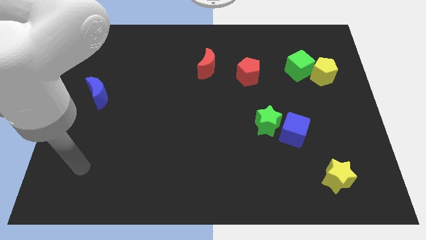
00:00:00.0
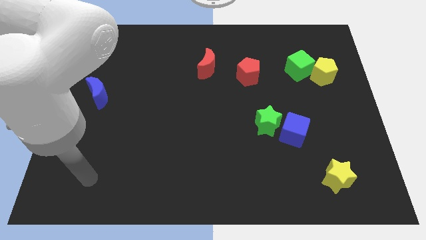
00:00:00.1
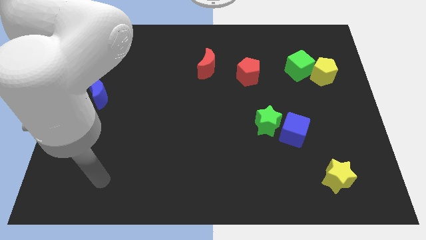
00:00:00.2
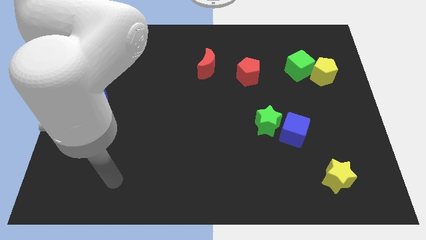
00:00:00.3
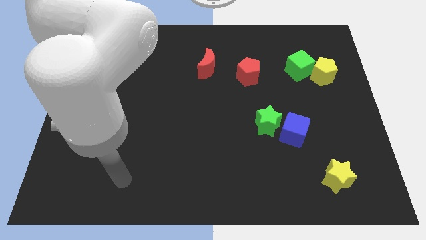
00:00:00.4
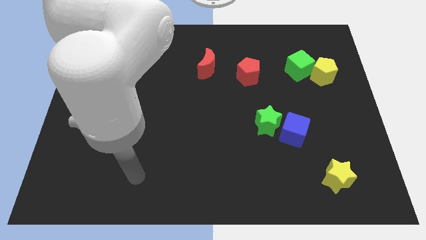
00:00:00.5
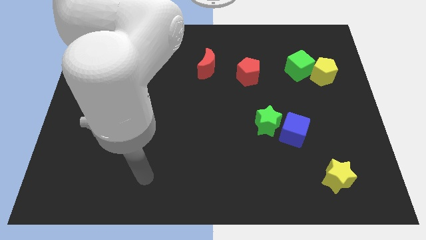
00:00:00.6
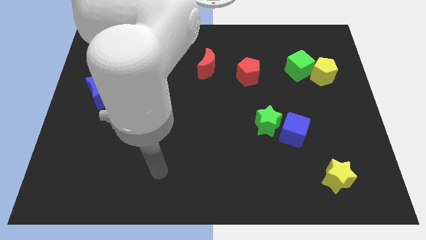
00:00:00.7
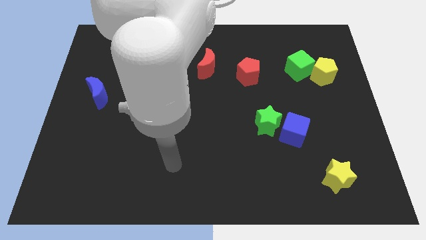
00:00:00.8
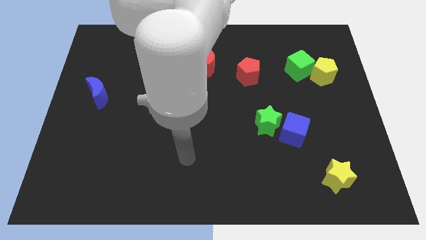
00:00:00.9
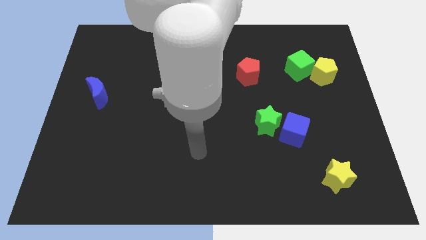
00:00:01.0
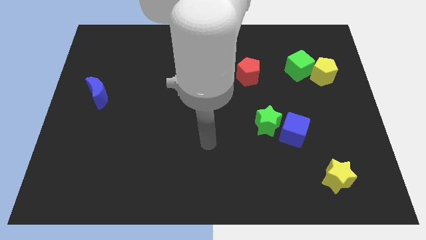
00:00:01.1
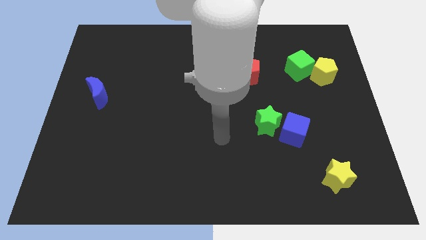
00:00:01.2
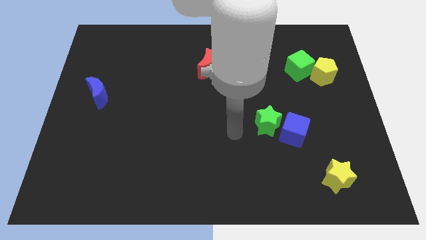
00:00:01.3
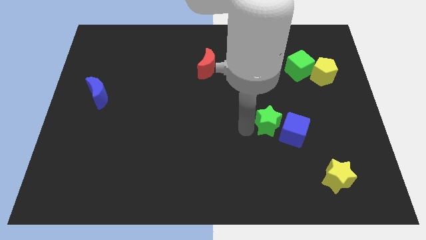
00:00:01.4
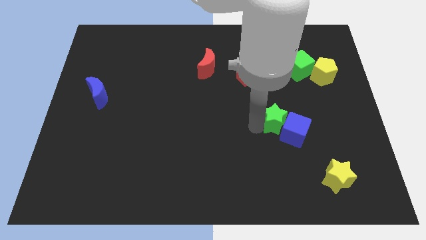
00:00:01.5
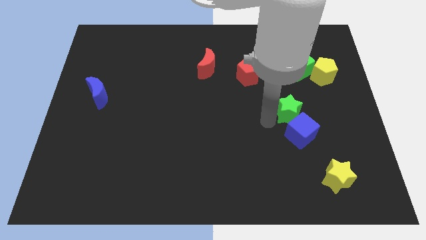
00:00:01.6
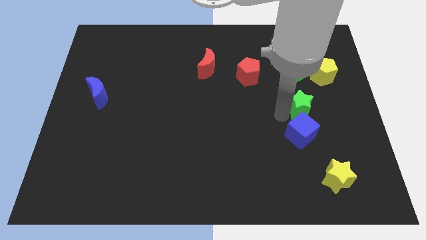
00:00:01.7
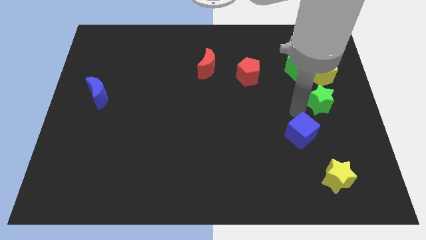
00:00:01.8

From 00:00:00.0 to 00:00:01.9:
move the blue cube away from the green star

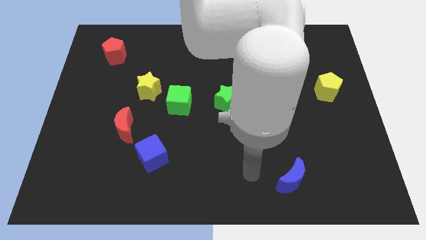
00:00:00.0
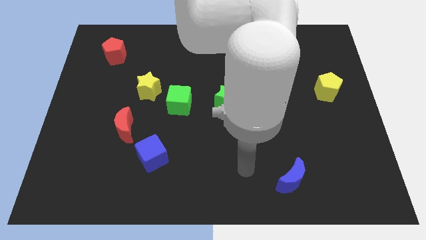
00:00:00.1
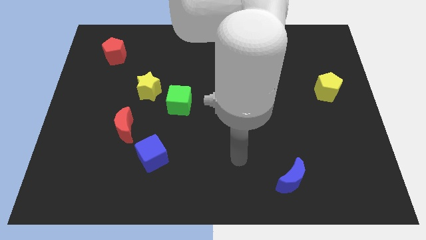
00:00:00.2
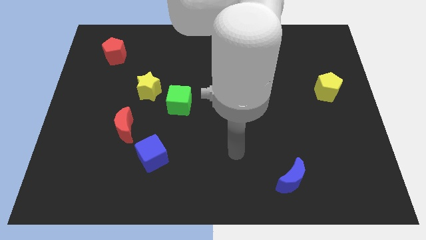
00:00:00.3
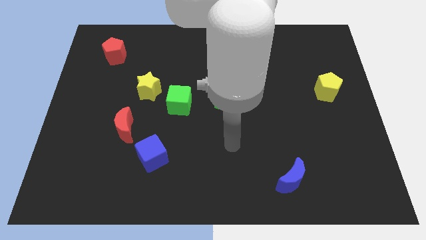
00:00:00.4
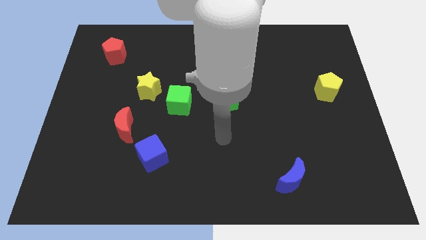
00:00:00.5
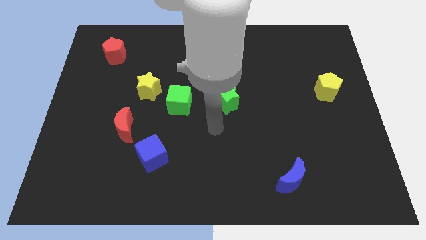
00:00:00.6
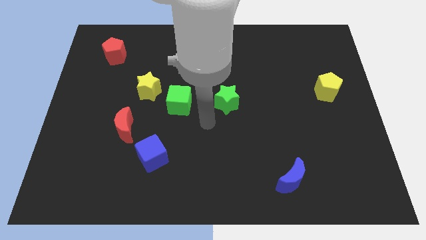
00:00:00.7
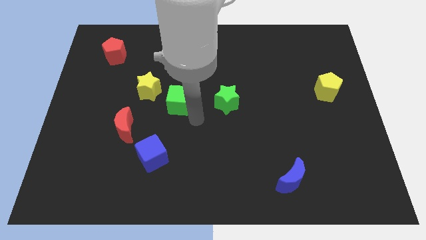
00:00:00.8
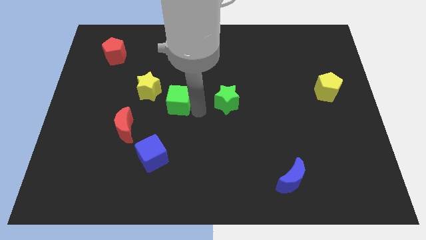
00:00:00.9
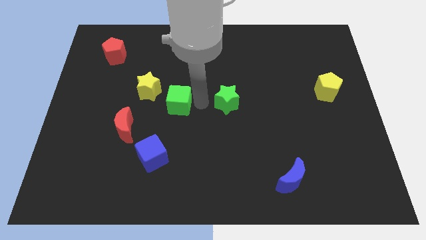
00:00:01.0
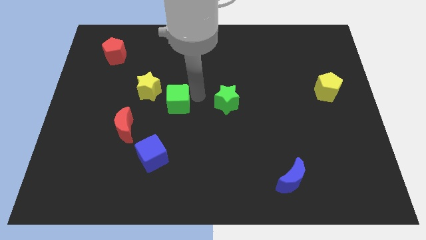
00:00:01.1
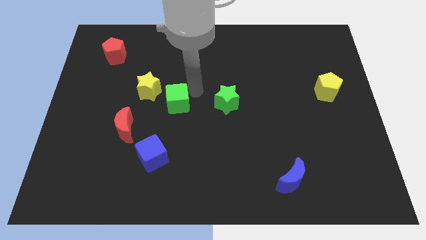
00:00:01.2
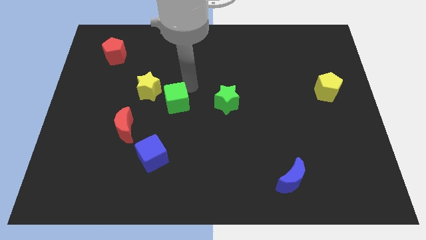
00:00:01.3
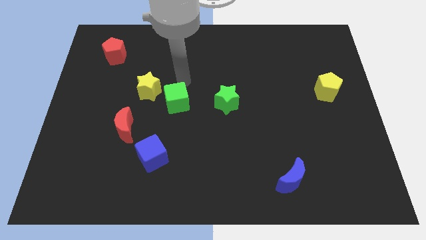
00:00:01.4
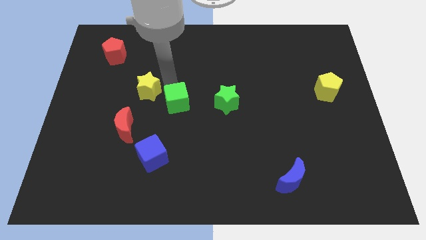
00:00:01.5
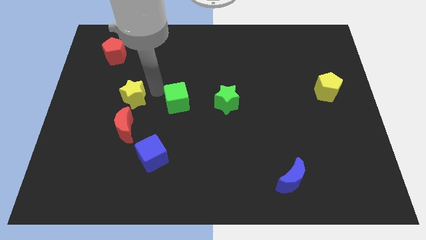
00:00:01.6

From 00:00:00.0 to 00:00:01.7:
pull the green cube apart from the yellow star

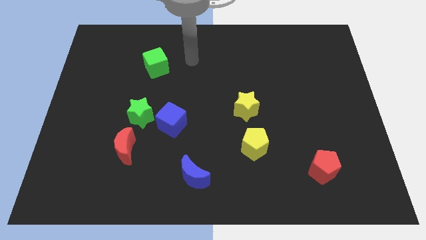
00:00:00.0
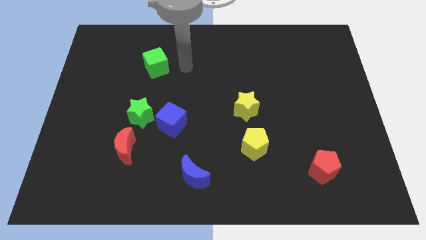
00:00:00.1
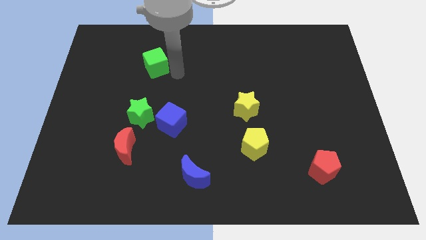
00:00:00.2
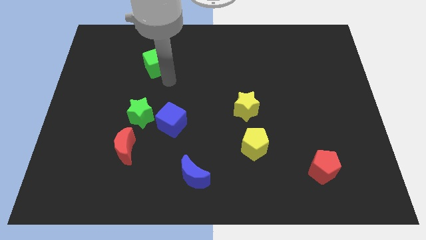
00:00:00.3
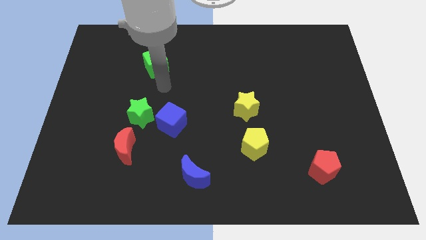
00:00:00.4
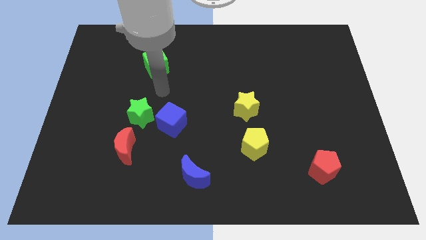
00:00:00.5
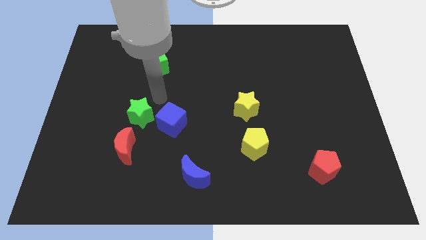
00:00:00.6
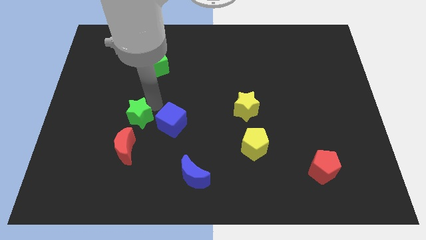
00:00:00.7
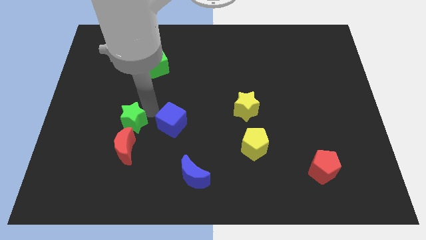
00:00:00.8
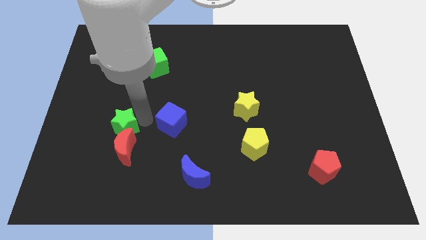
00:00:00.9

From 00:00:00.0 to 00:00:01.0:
separate the blue cube from the green star

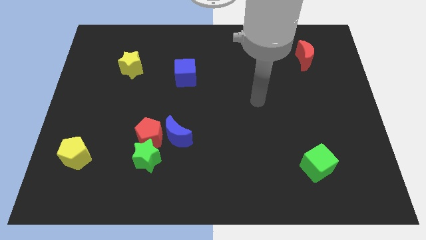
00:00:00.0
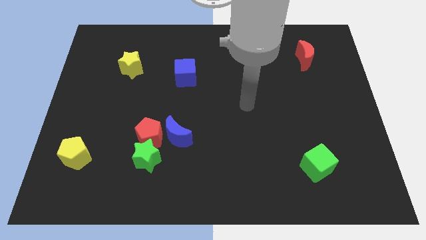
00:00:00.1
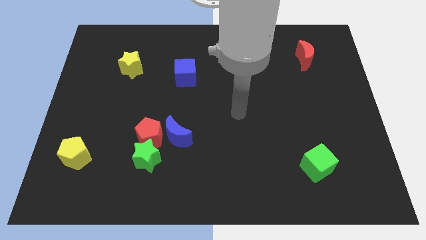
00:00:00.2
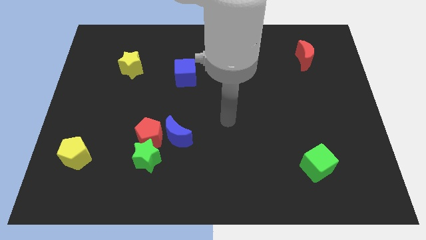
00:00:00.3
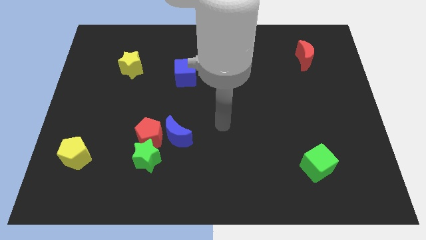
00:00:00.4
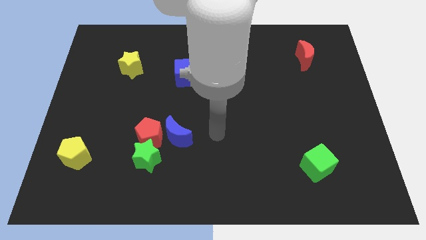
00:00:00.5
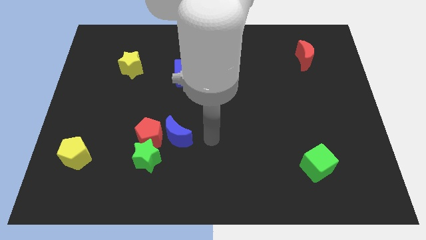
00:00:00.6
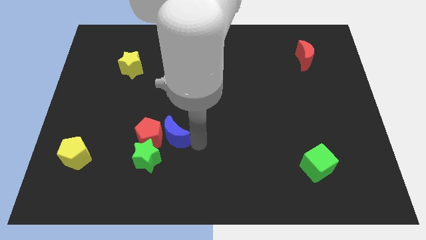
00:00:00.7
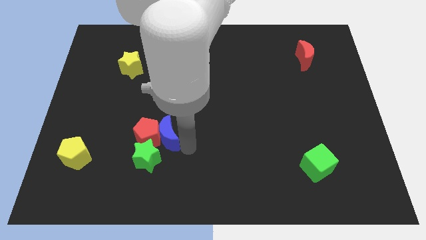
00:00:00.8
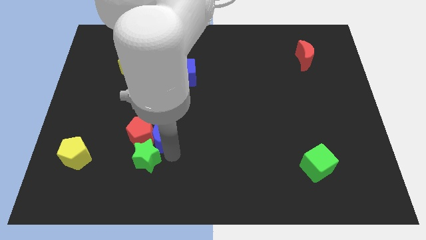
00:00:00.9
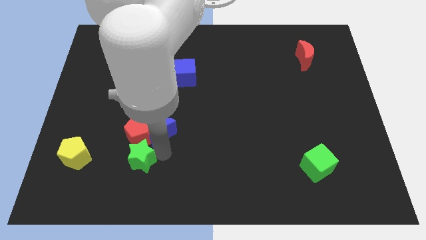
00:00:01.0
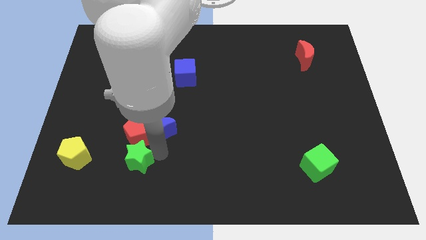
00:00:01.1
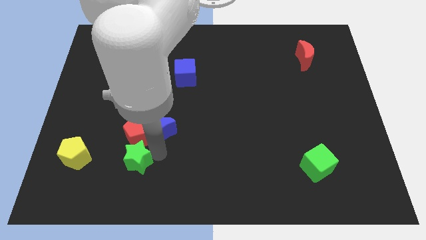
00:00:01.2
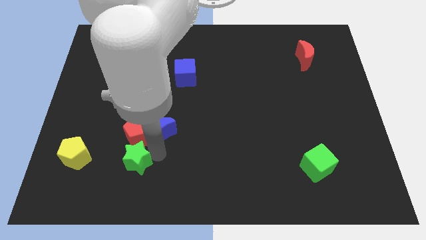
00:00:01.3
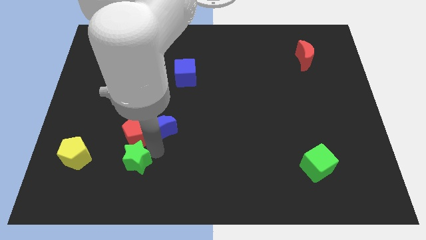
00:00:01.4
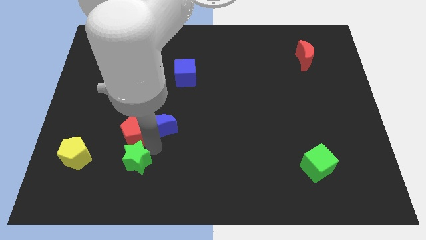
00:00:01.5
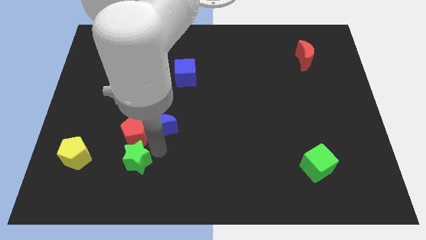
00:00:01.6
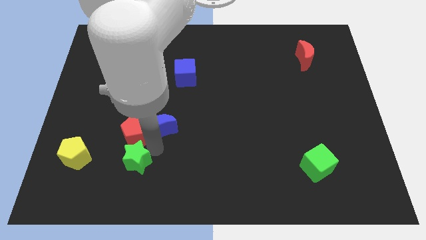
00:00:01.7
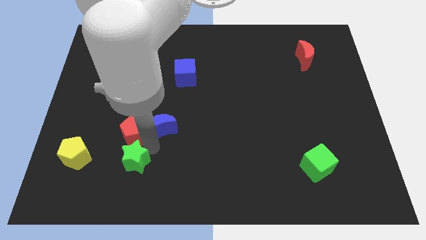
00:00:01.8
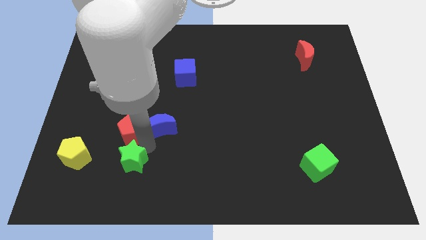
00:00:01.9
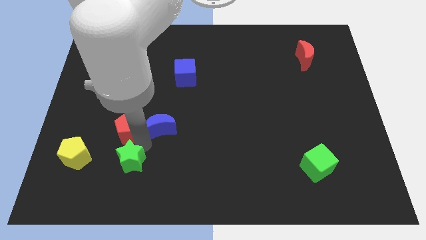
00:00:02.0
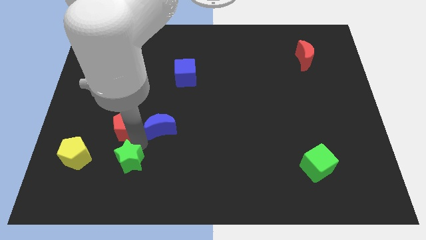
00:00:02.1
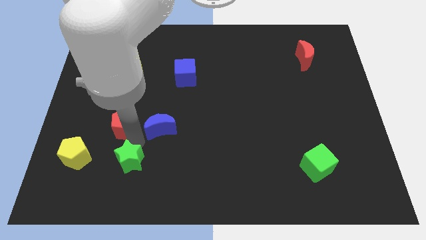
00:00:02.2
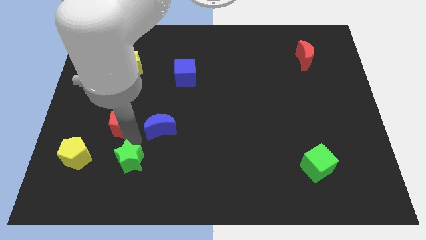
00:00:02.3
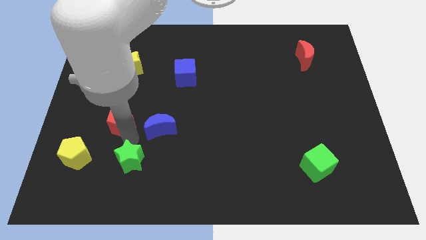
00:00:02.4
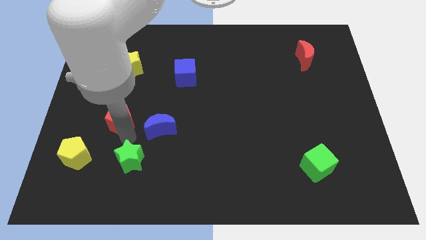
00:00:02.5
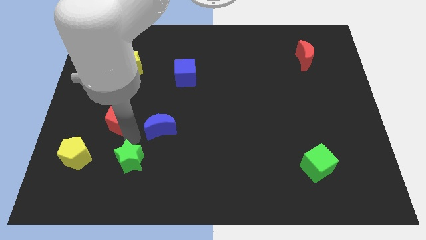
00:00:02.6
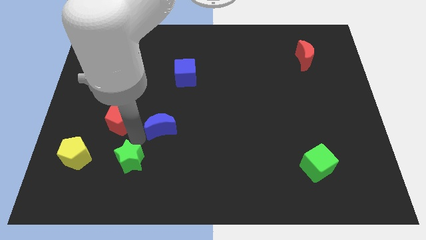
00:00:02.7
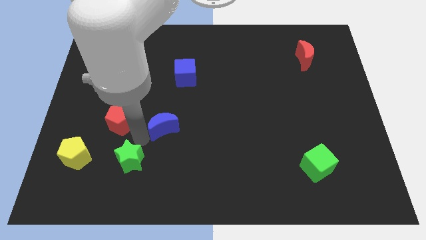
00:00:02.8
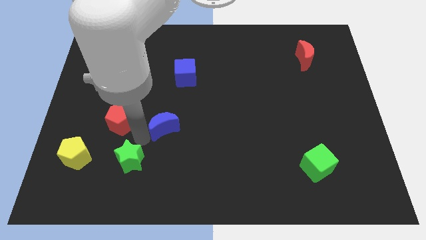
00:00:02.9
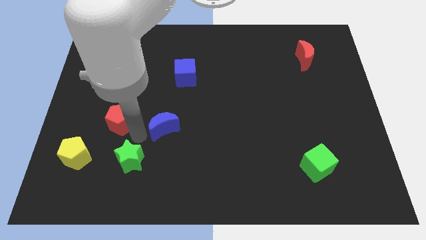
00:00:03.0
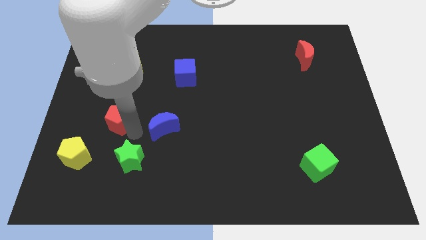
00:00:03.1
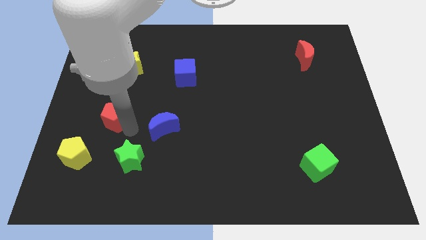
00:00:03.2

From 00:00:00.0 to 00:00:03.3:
move the red pentagon away from the green star and blue moon

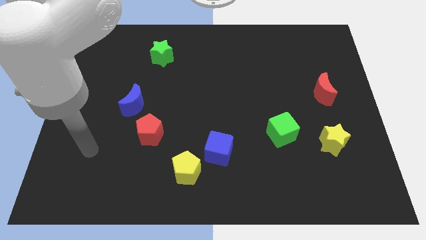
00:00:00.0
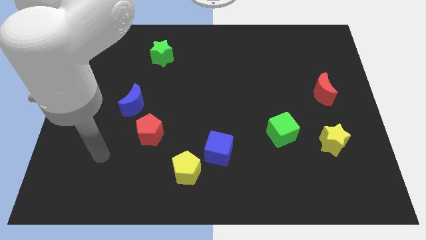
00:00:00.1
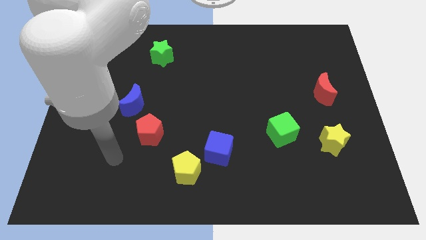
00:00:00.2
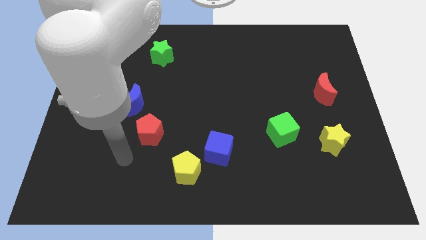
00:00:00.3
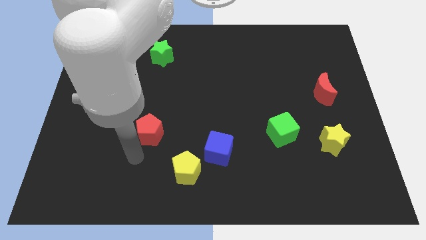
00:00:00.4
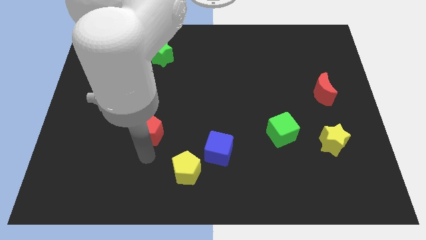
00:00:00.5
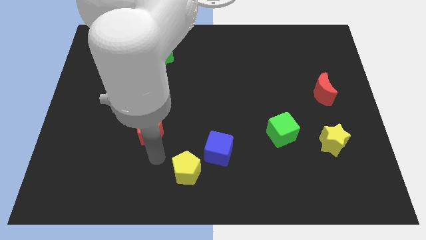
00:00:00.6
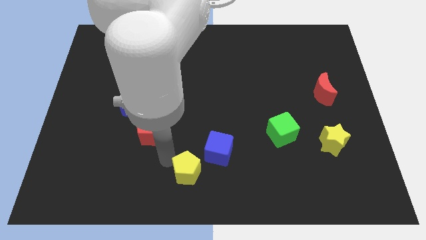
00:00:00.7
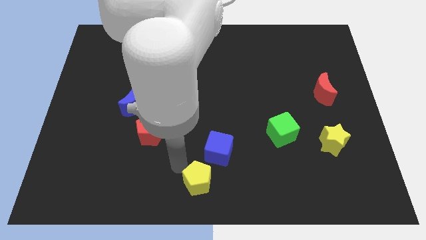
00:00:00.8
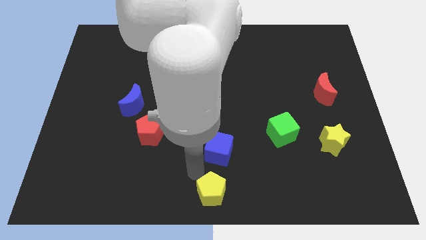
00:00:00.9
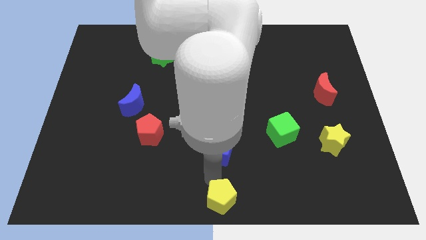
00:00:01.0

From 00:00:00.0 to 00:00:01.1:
pull the blue cube apart from the yellow pentagon
